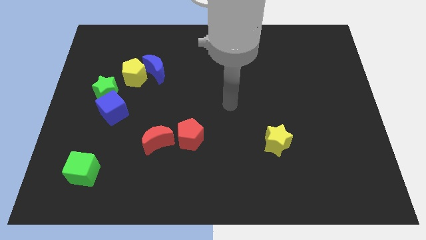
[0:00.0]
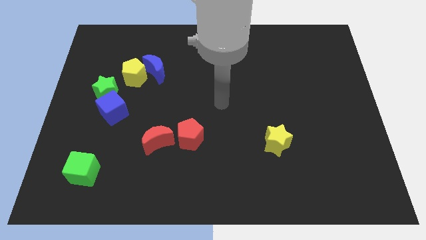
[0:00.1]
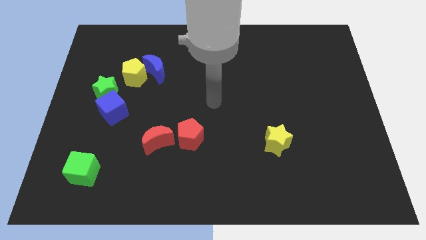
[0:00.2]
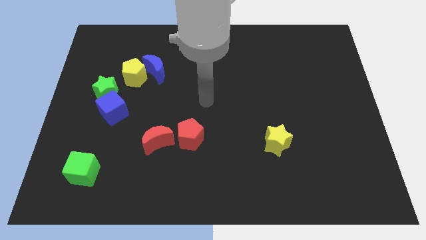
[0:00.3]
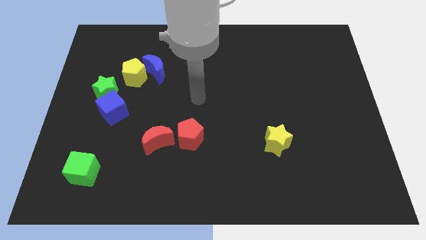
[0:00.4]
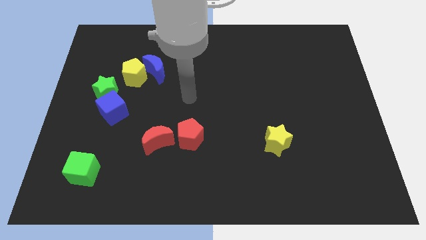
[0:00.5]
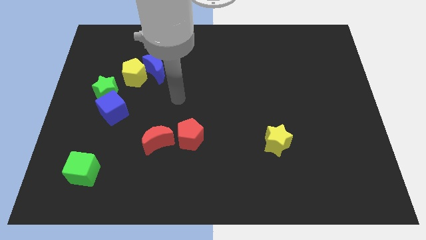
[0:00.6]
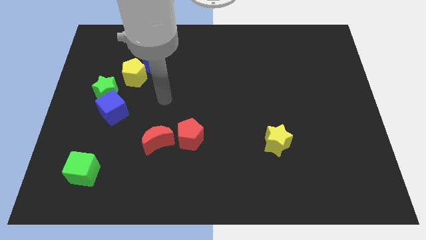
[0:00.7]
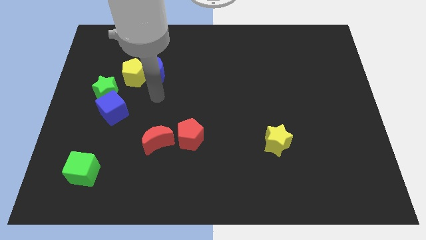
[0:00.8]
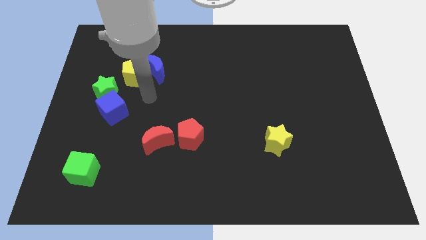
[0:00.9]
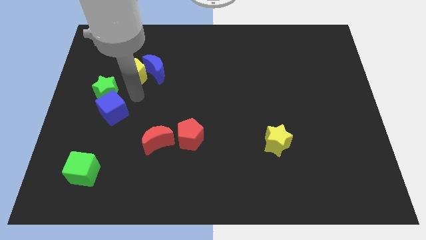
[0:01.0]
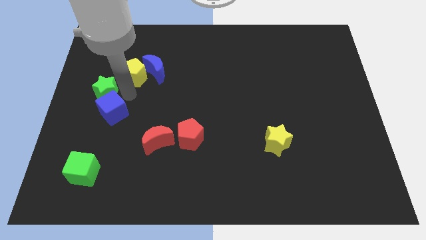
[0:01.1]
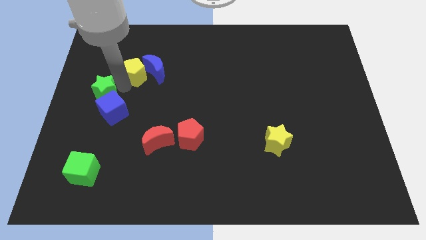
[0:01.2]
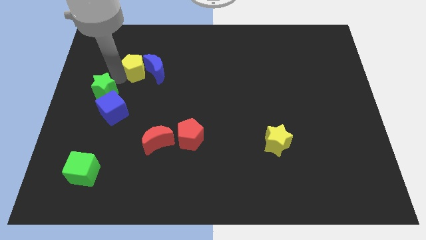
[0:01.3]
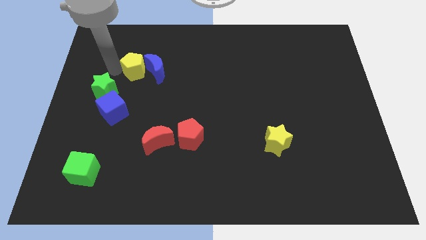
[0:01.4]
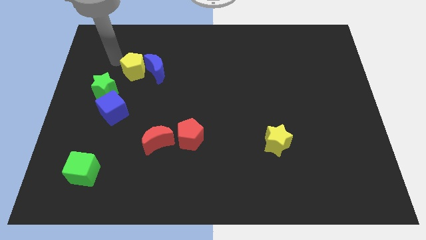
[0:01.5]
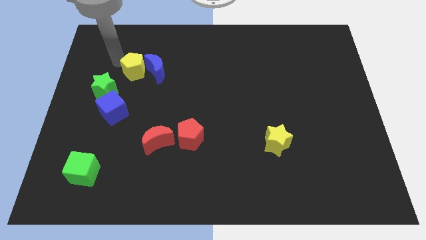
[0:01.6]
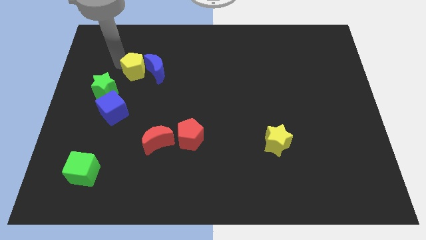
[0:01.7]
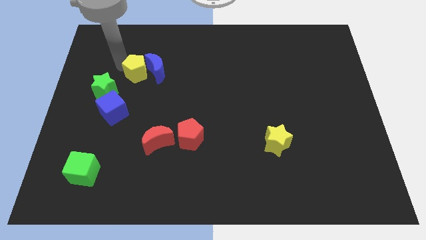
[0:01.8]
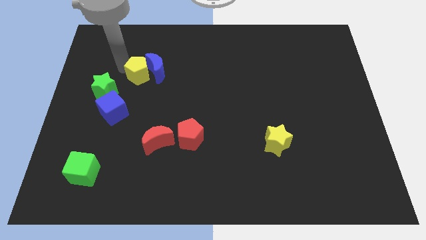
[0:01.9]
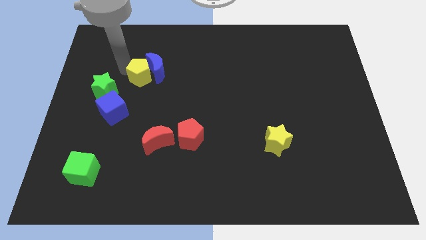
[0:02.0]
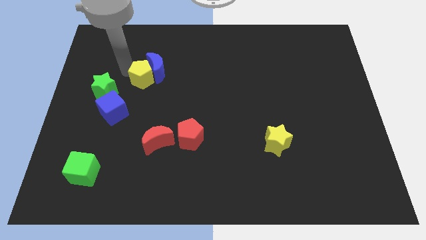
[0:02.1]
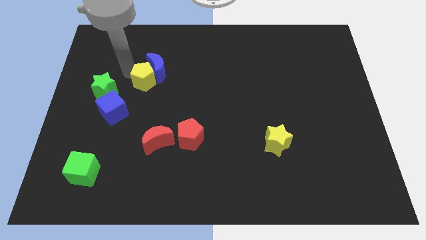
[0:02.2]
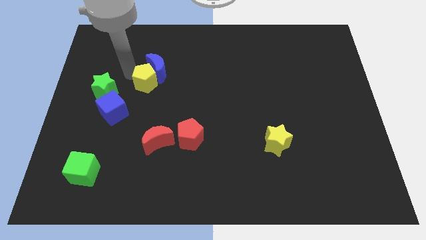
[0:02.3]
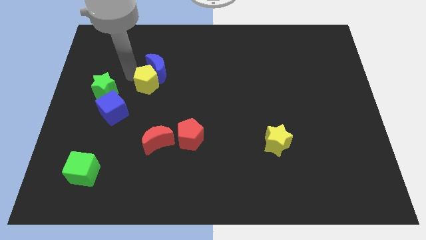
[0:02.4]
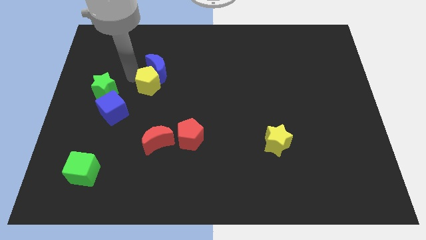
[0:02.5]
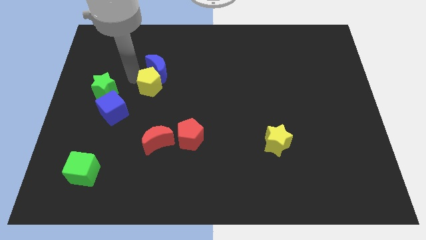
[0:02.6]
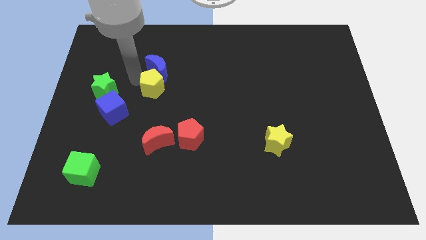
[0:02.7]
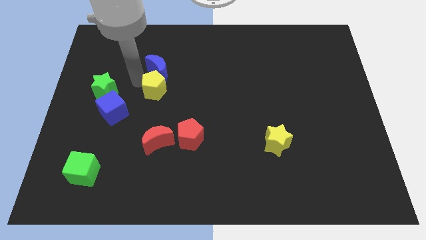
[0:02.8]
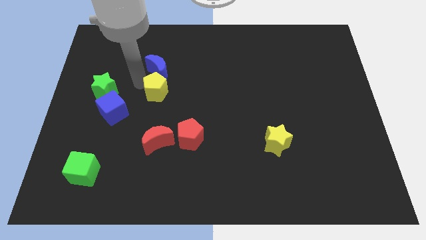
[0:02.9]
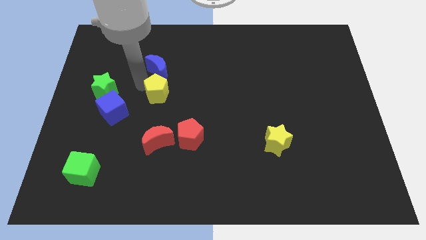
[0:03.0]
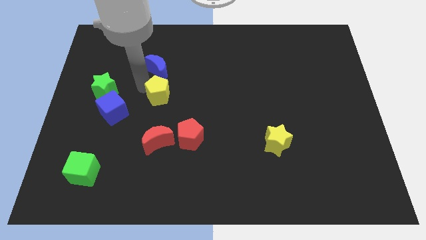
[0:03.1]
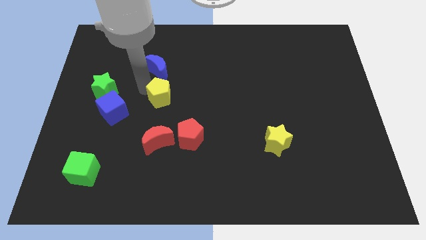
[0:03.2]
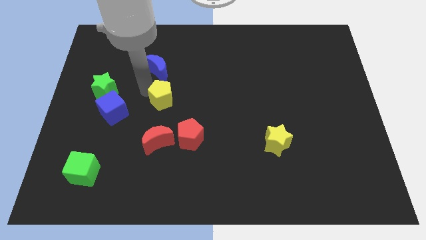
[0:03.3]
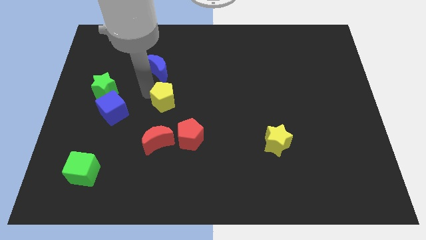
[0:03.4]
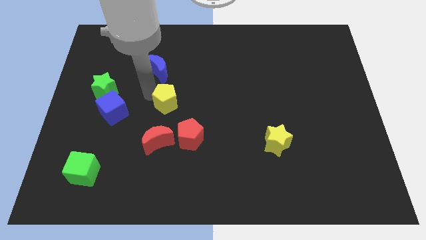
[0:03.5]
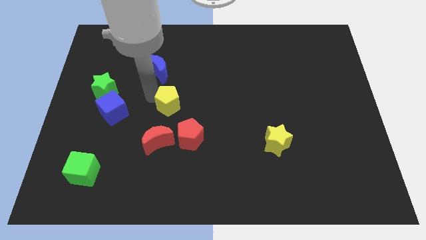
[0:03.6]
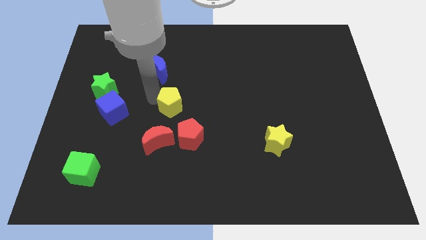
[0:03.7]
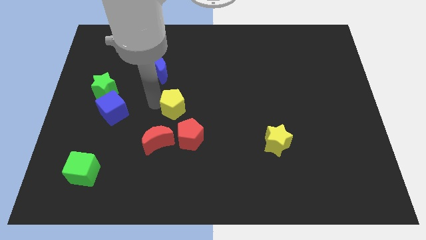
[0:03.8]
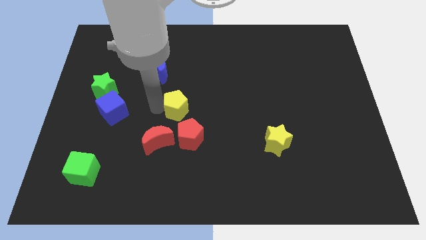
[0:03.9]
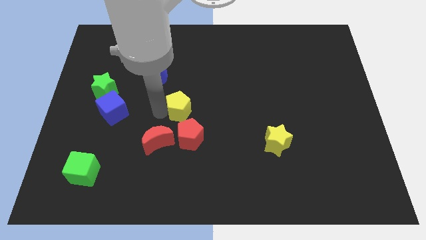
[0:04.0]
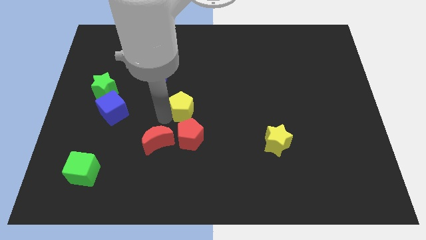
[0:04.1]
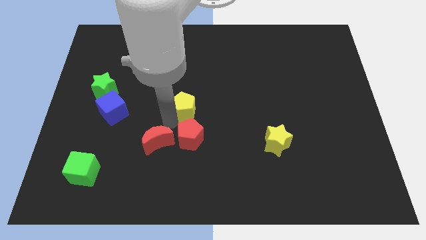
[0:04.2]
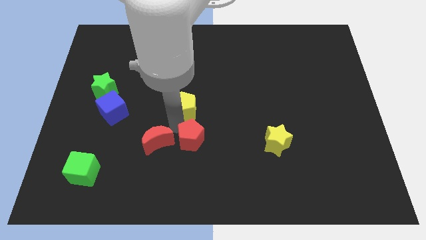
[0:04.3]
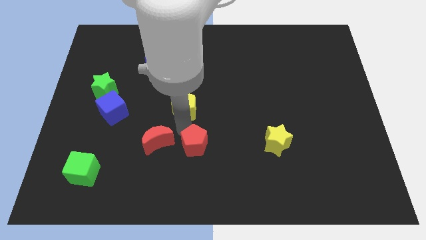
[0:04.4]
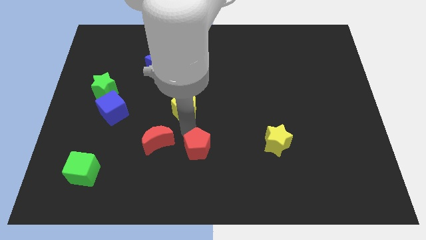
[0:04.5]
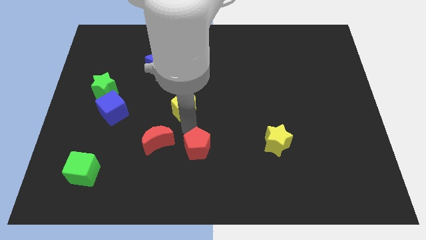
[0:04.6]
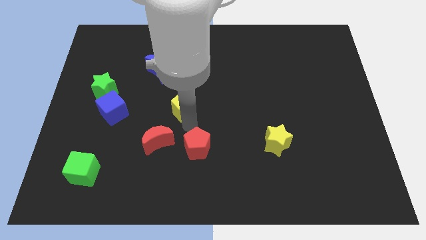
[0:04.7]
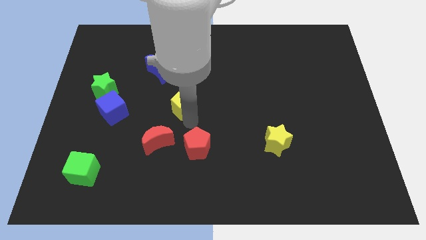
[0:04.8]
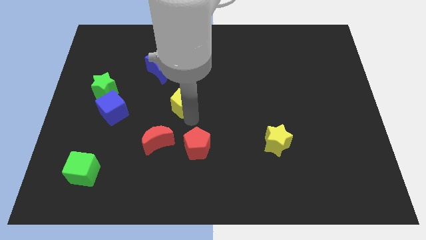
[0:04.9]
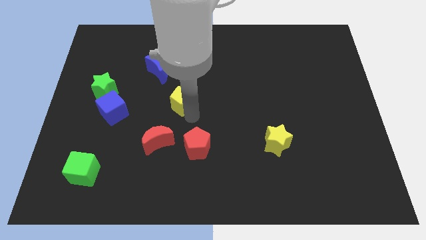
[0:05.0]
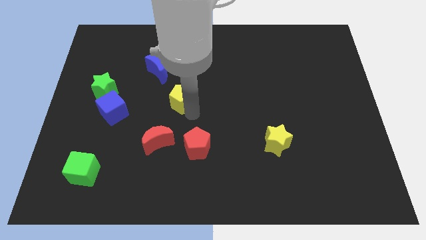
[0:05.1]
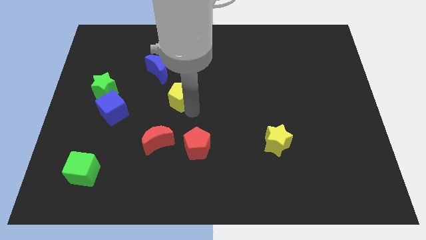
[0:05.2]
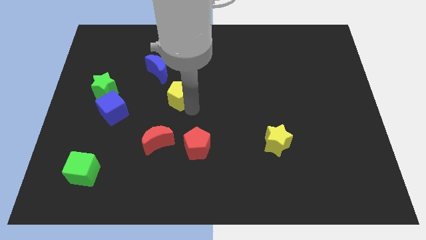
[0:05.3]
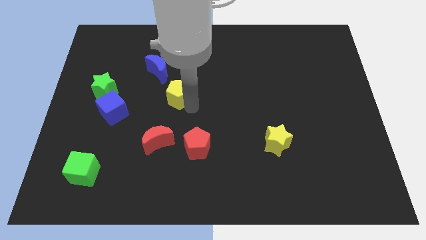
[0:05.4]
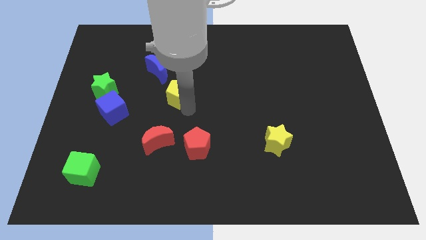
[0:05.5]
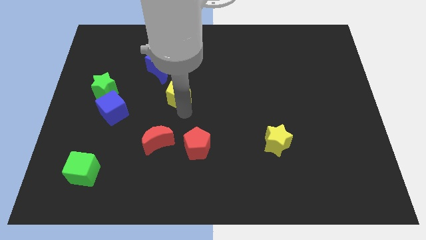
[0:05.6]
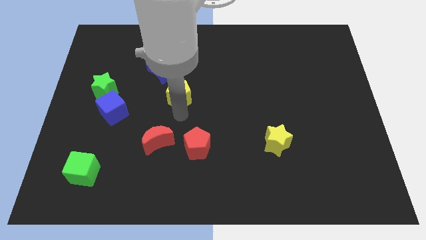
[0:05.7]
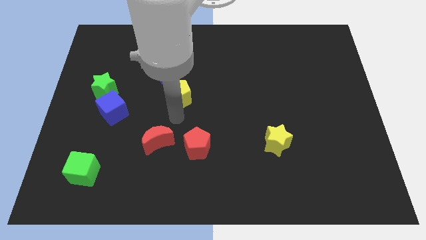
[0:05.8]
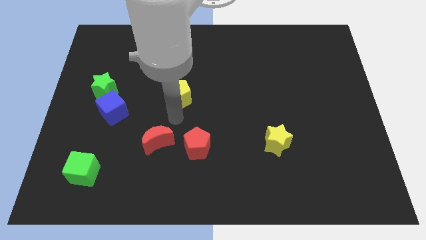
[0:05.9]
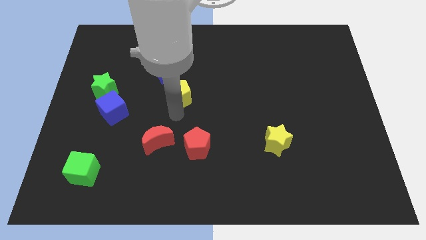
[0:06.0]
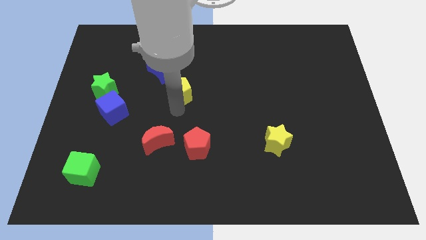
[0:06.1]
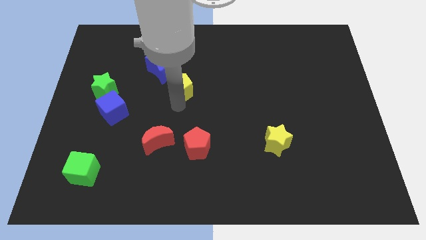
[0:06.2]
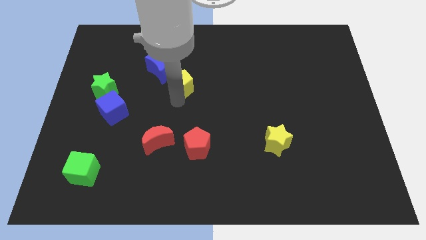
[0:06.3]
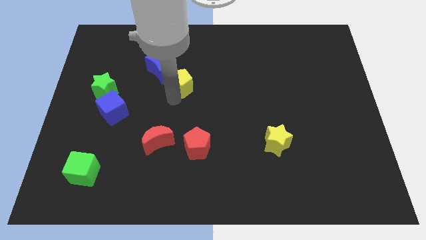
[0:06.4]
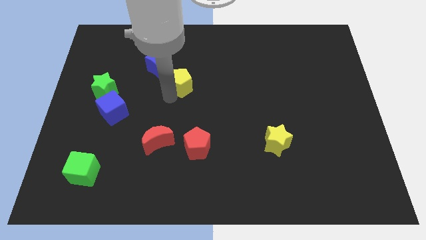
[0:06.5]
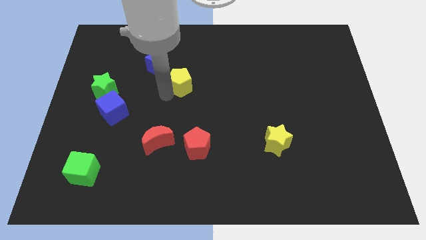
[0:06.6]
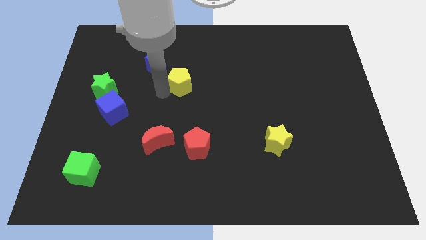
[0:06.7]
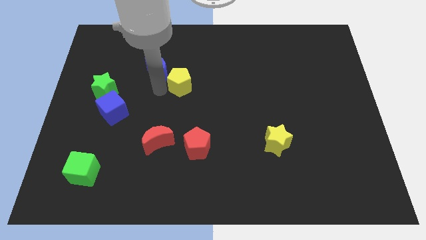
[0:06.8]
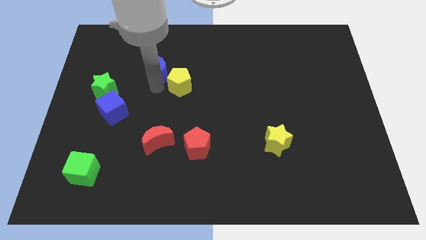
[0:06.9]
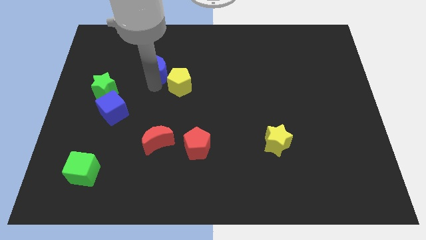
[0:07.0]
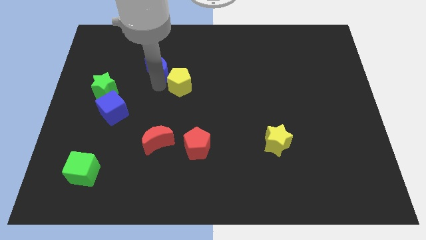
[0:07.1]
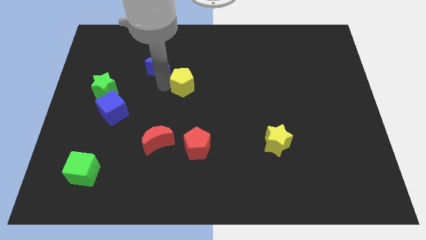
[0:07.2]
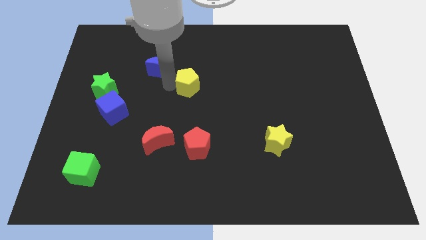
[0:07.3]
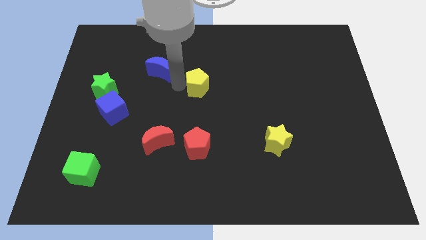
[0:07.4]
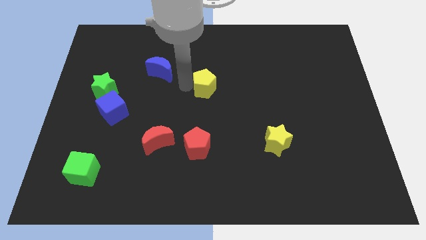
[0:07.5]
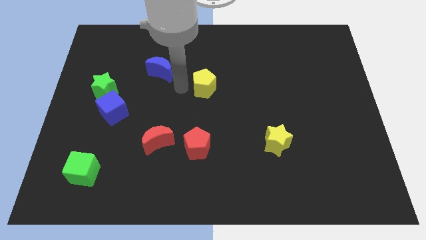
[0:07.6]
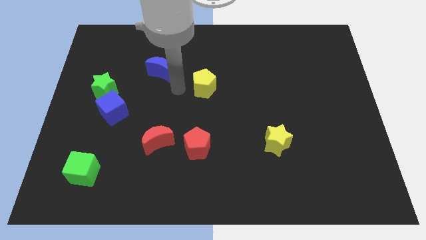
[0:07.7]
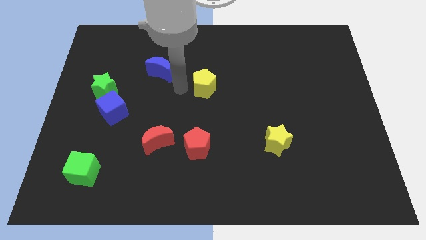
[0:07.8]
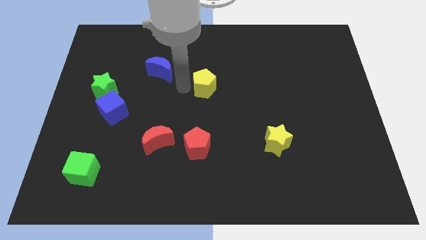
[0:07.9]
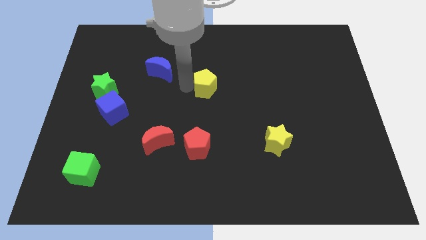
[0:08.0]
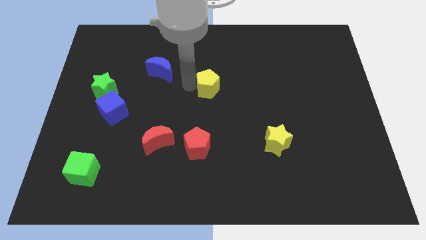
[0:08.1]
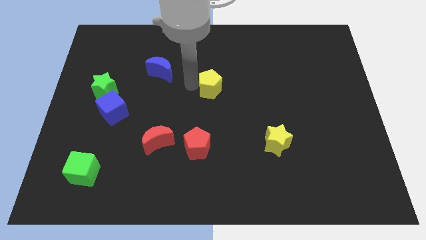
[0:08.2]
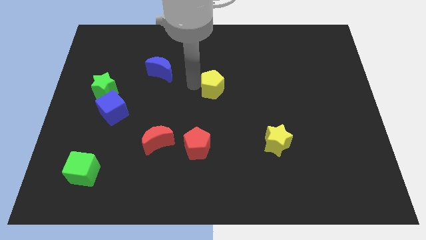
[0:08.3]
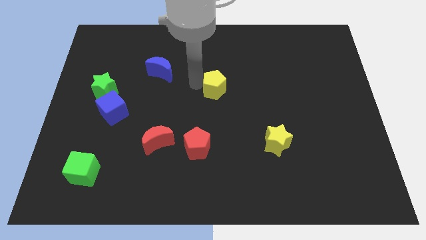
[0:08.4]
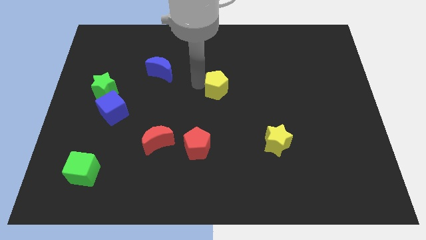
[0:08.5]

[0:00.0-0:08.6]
push the yellow pentagon to the right
